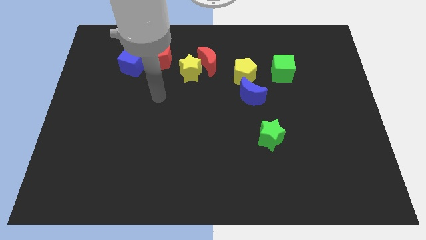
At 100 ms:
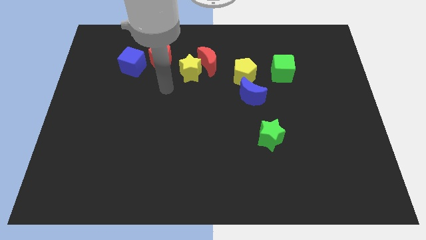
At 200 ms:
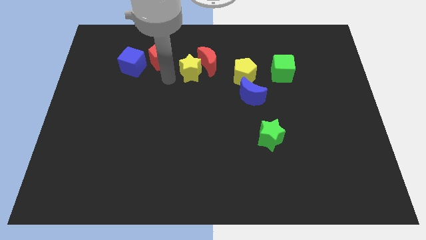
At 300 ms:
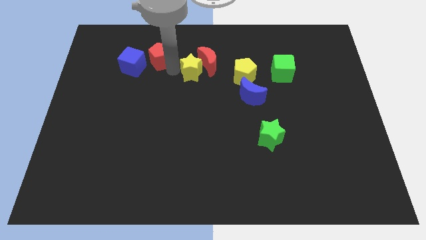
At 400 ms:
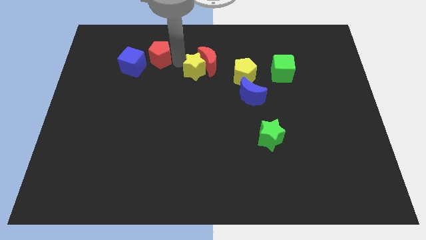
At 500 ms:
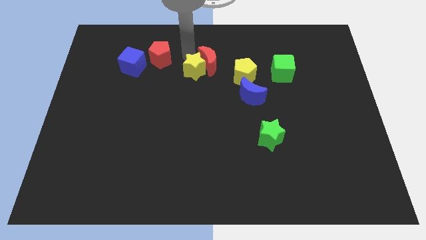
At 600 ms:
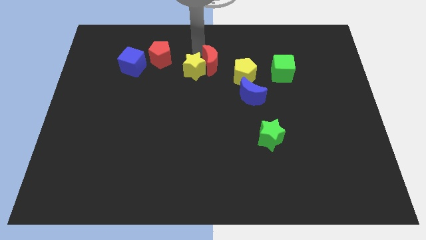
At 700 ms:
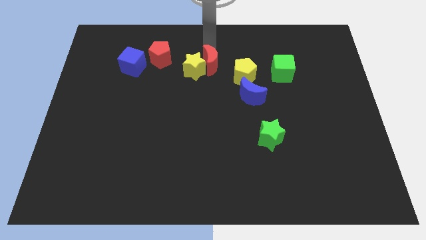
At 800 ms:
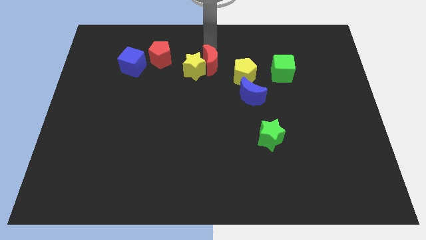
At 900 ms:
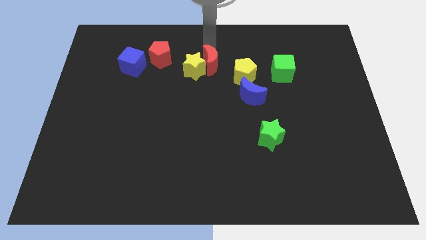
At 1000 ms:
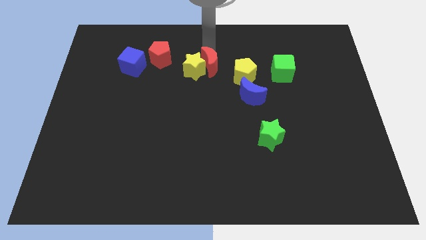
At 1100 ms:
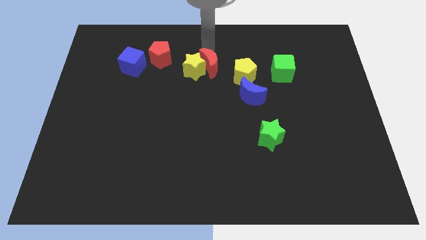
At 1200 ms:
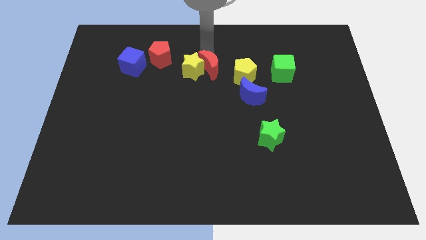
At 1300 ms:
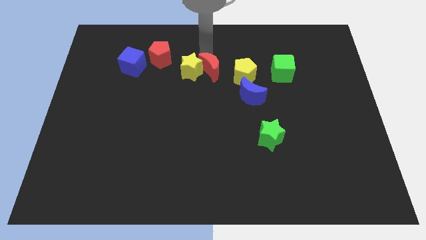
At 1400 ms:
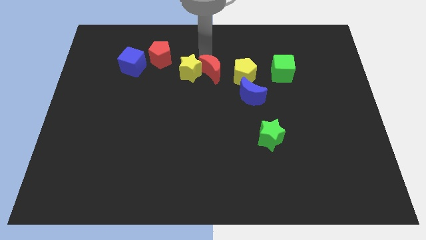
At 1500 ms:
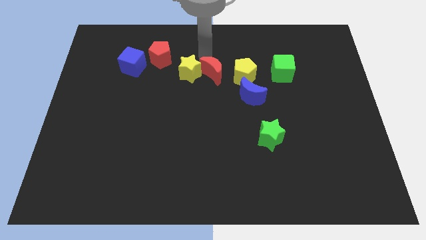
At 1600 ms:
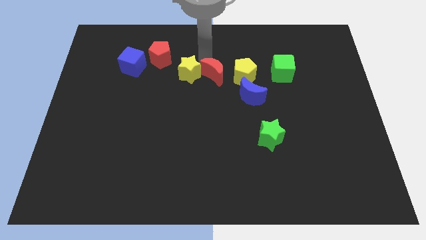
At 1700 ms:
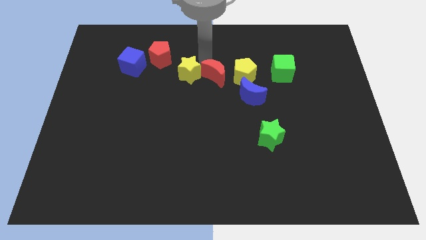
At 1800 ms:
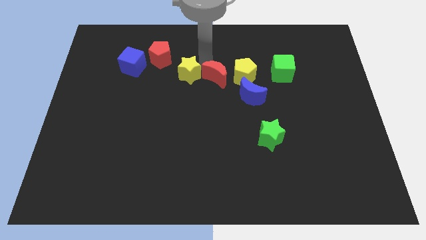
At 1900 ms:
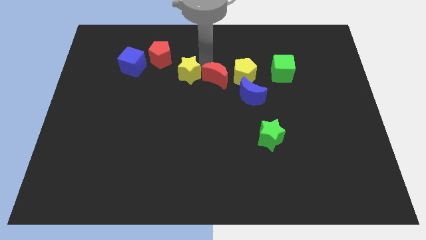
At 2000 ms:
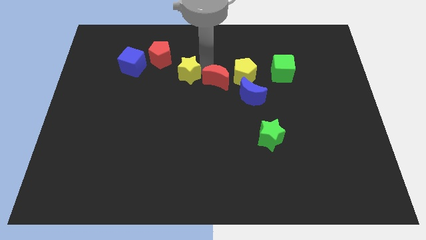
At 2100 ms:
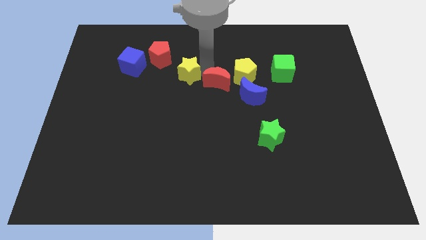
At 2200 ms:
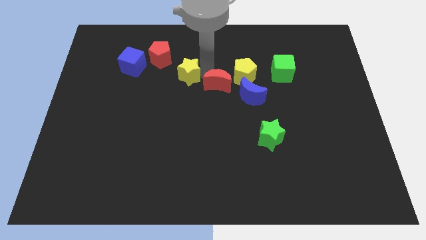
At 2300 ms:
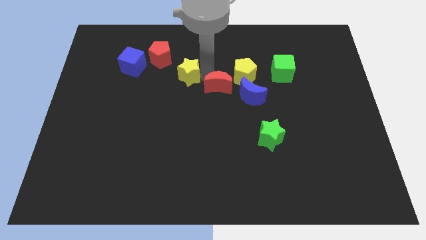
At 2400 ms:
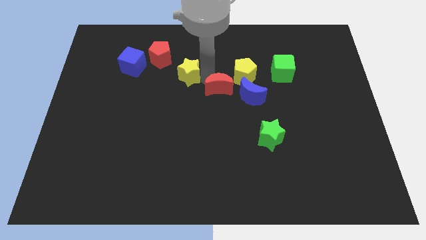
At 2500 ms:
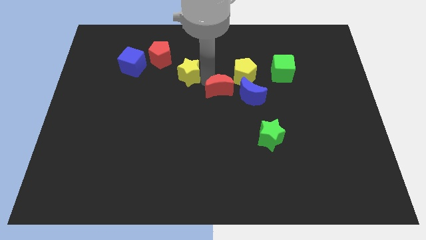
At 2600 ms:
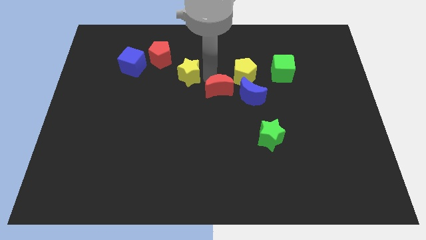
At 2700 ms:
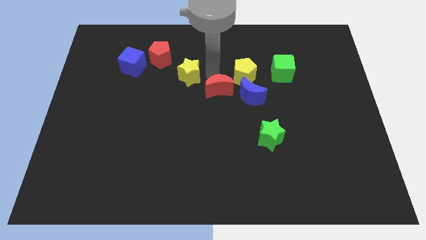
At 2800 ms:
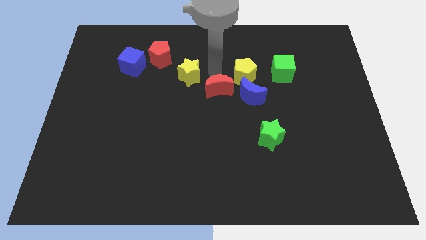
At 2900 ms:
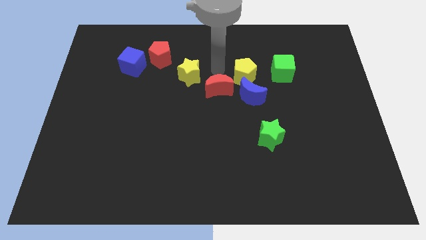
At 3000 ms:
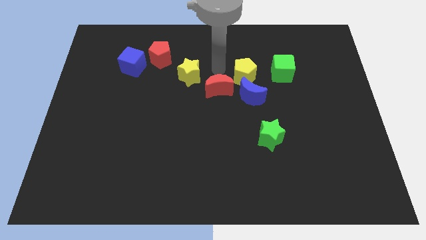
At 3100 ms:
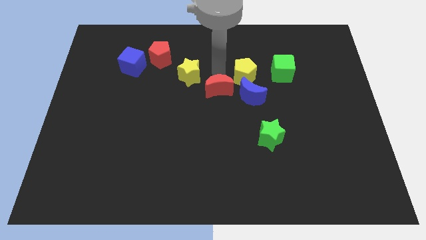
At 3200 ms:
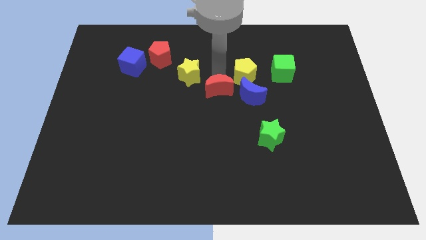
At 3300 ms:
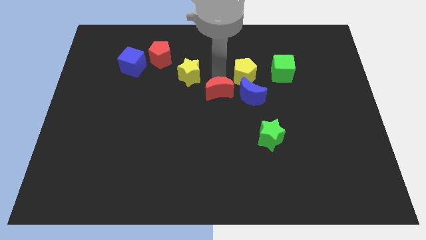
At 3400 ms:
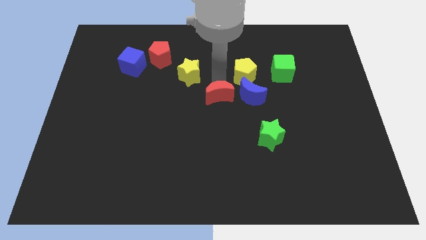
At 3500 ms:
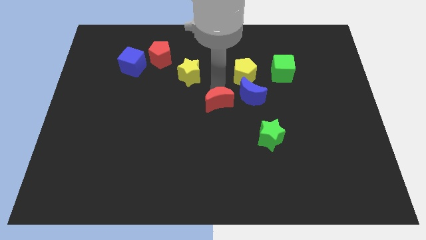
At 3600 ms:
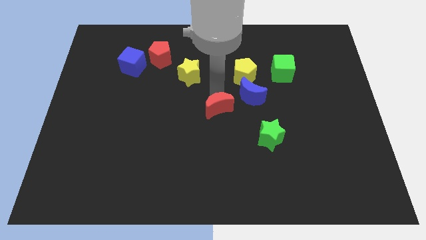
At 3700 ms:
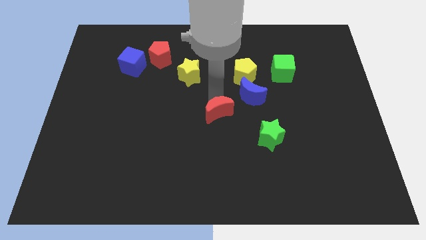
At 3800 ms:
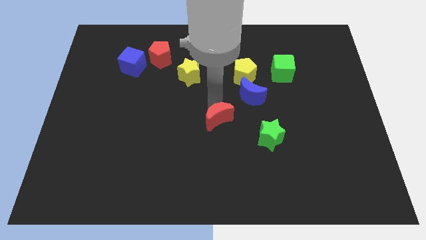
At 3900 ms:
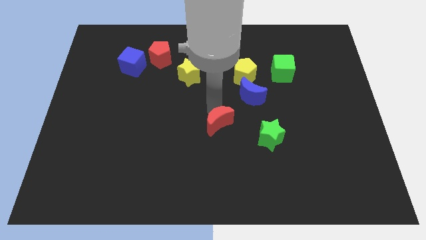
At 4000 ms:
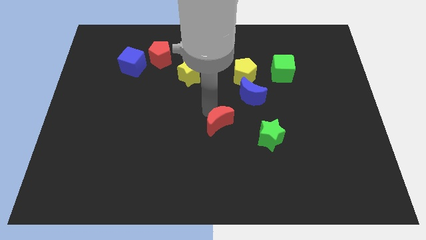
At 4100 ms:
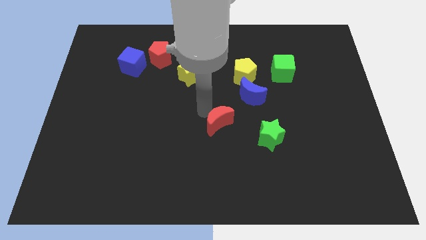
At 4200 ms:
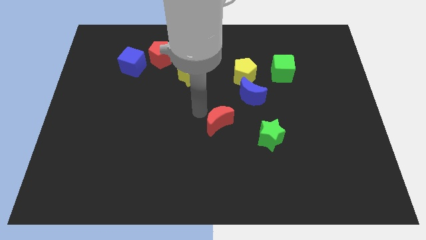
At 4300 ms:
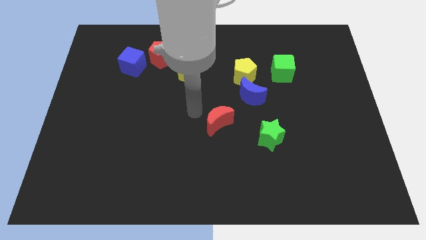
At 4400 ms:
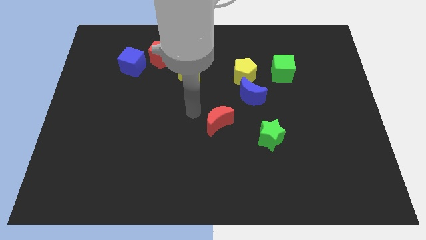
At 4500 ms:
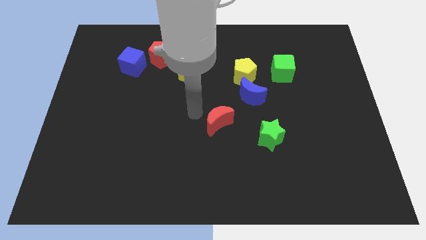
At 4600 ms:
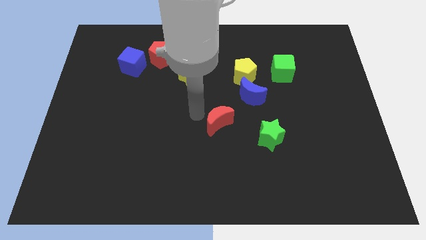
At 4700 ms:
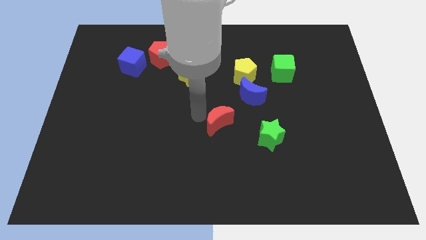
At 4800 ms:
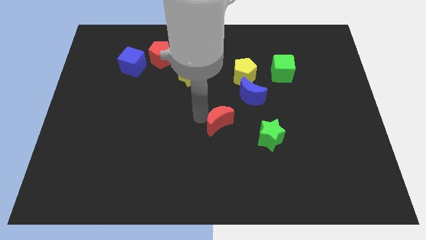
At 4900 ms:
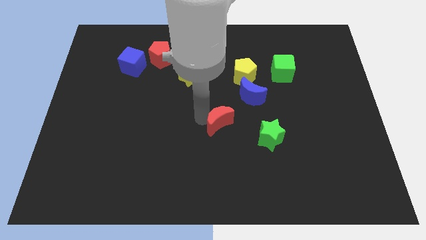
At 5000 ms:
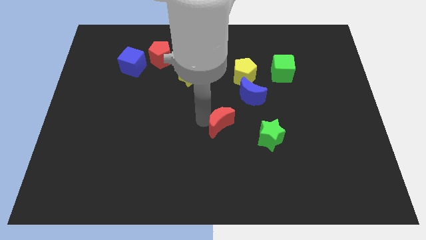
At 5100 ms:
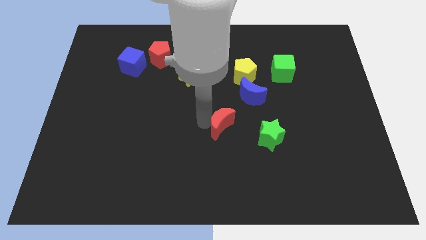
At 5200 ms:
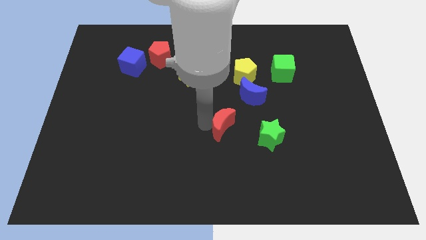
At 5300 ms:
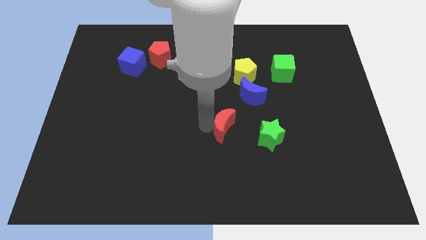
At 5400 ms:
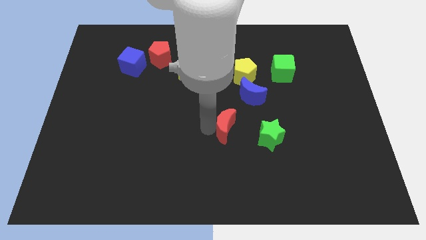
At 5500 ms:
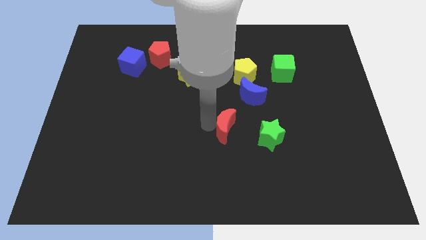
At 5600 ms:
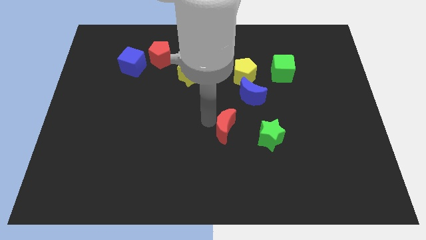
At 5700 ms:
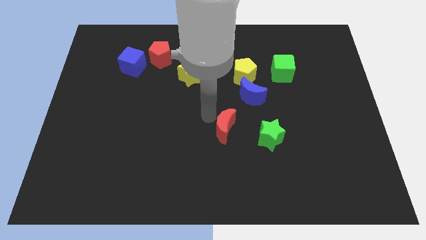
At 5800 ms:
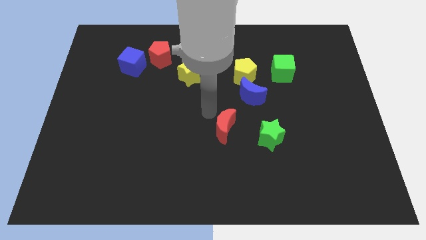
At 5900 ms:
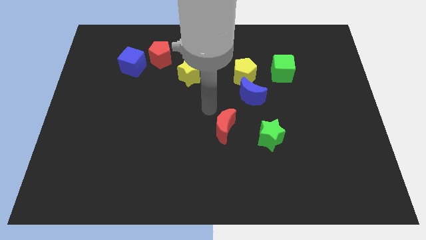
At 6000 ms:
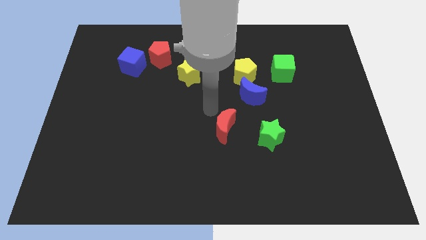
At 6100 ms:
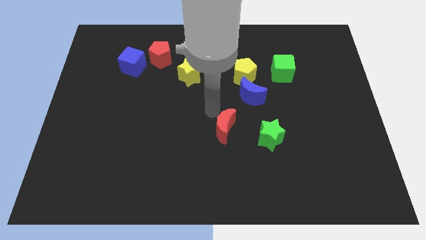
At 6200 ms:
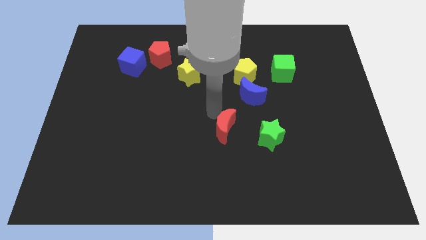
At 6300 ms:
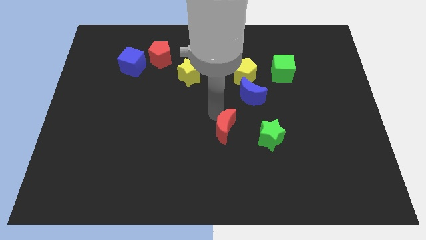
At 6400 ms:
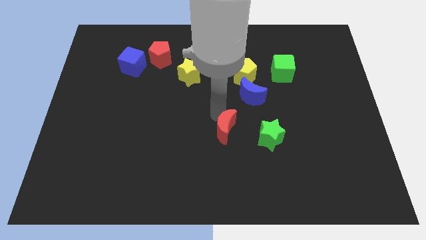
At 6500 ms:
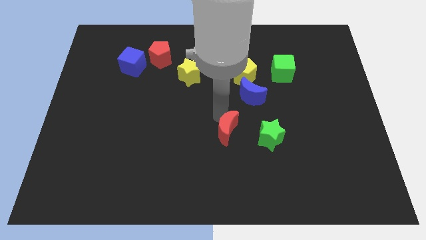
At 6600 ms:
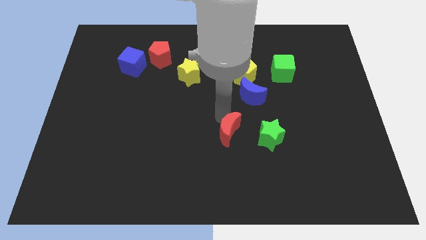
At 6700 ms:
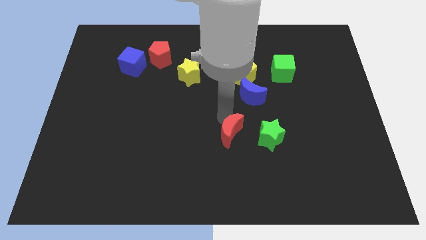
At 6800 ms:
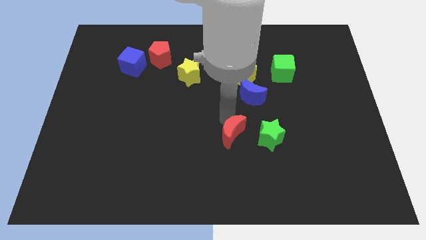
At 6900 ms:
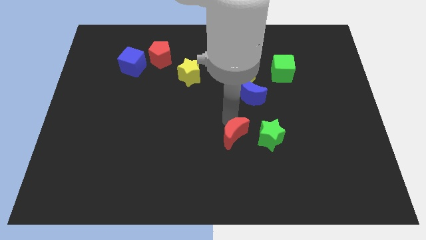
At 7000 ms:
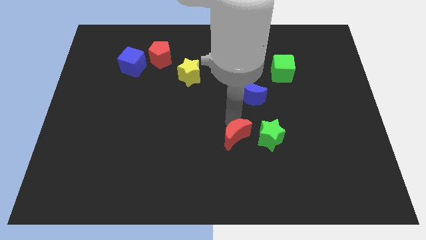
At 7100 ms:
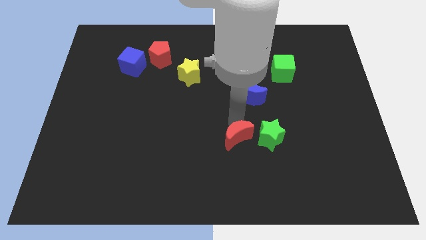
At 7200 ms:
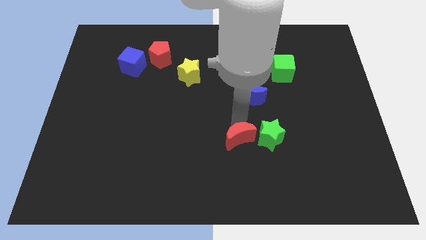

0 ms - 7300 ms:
slide the red moon to the bottom left of the green star
